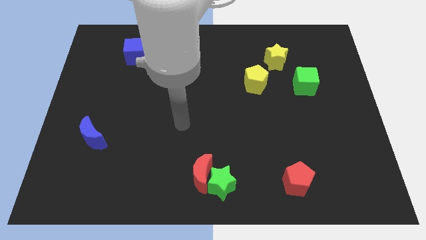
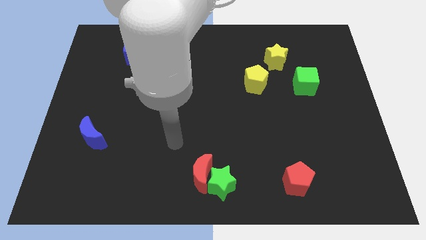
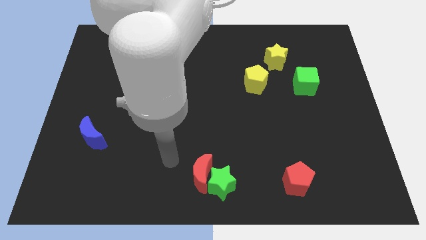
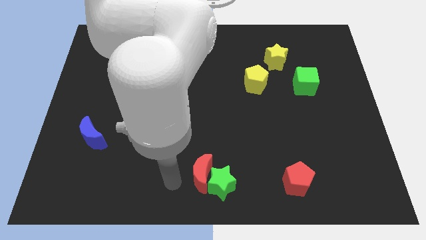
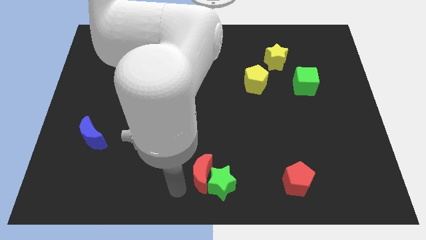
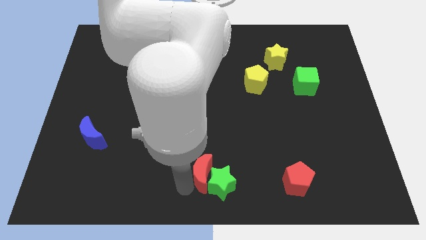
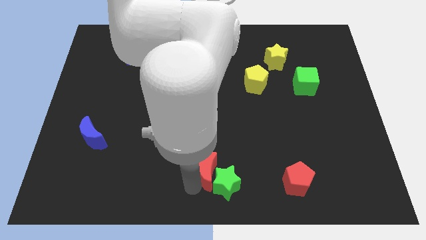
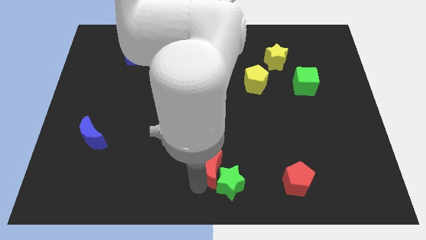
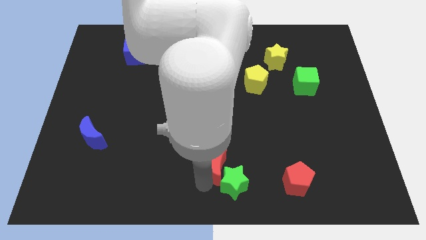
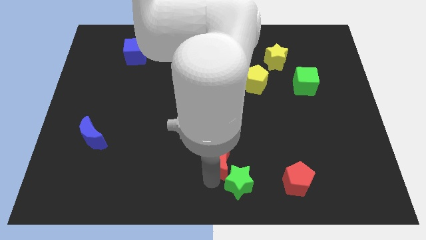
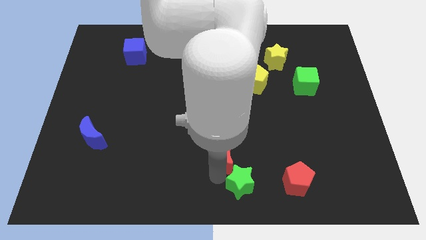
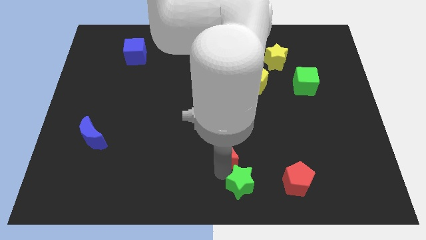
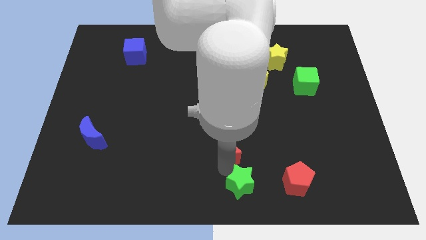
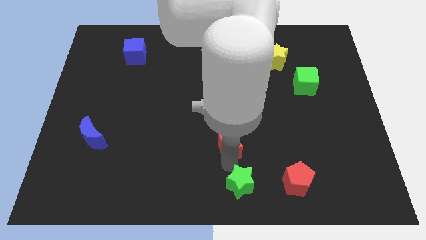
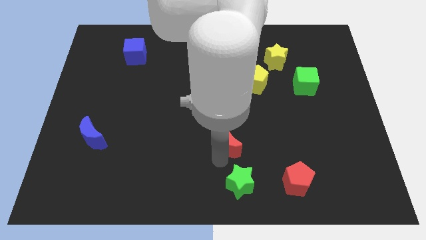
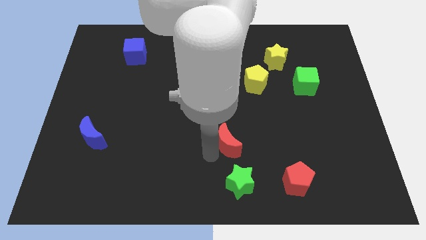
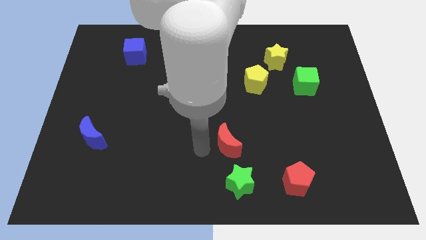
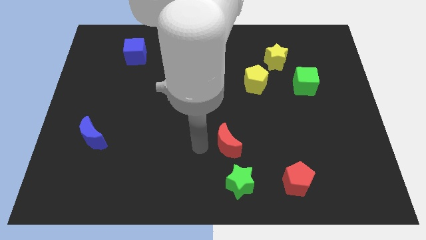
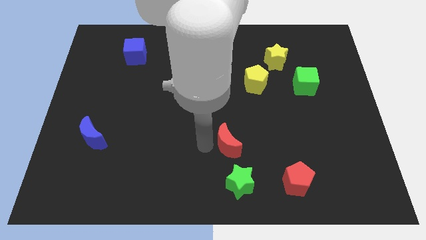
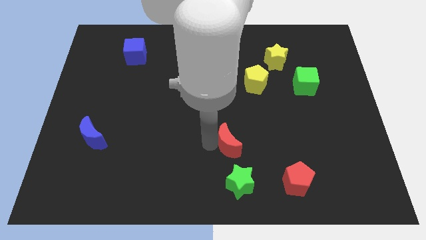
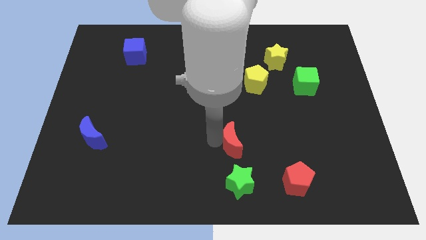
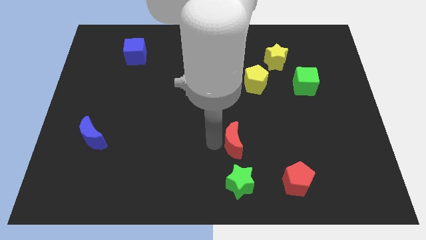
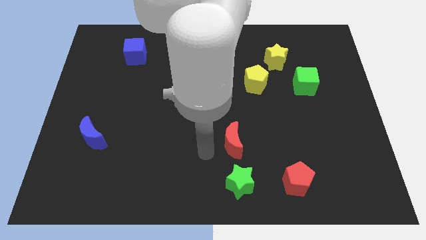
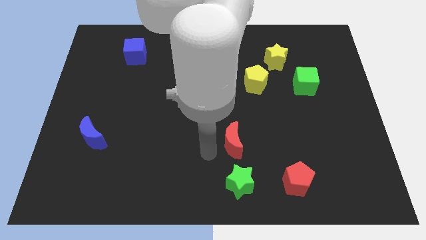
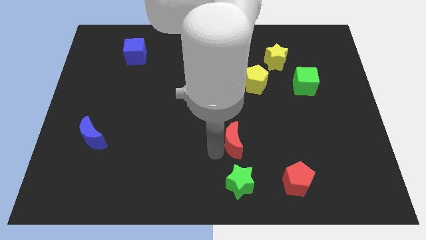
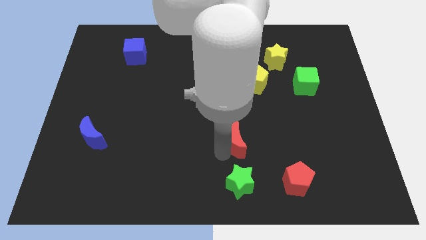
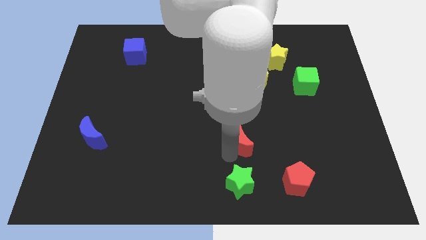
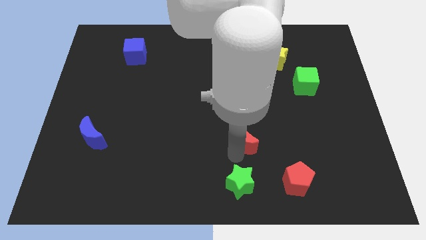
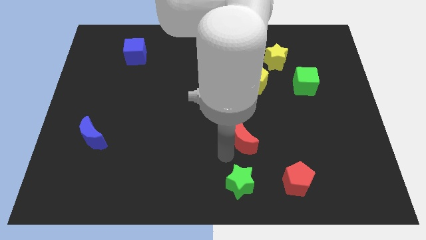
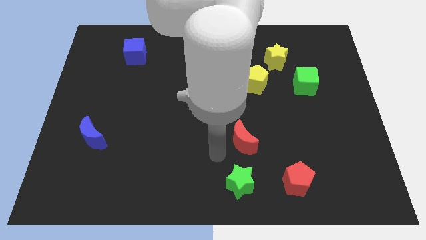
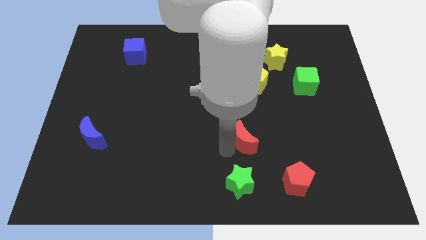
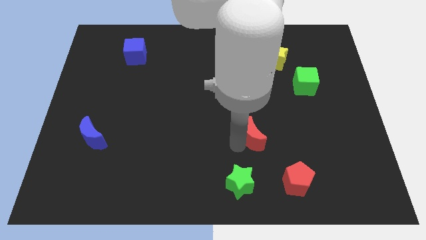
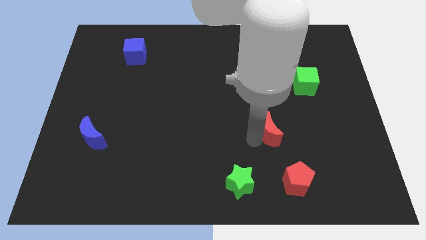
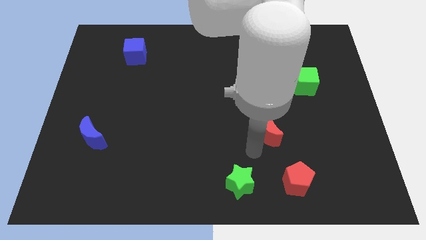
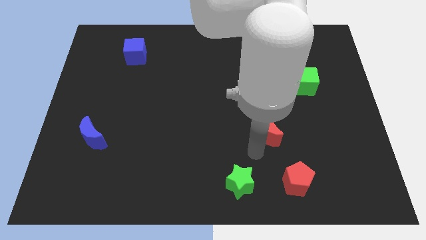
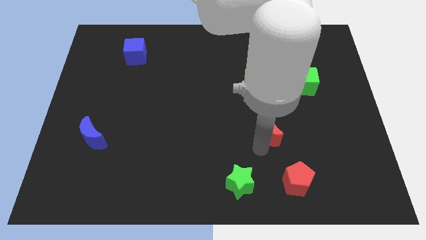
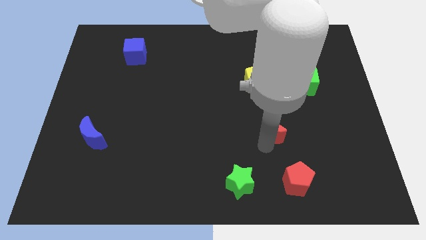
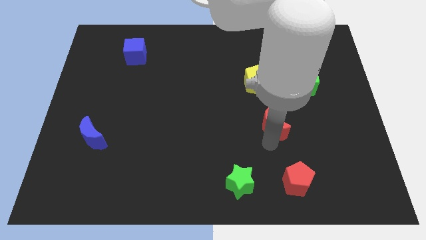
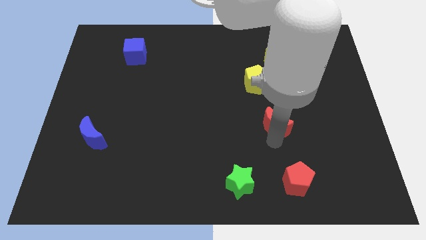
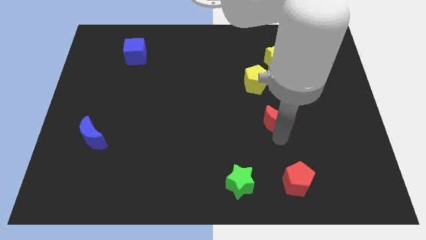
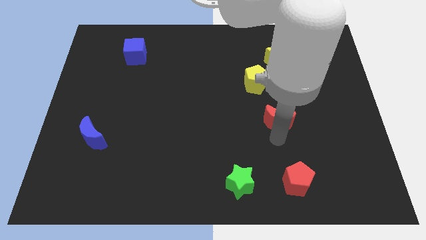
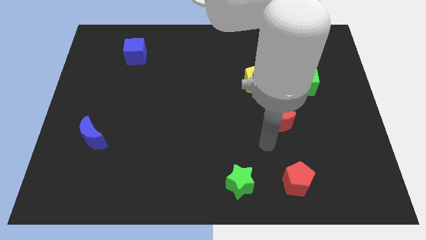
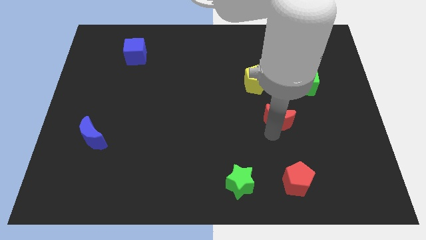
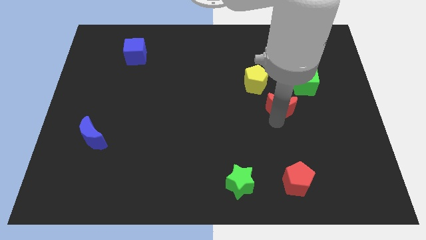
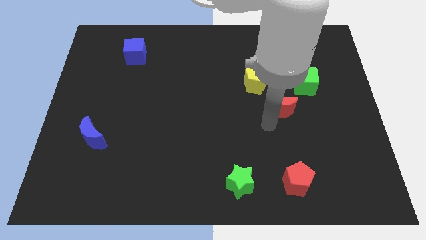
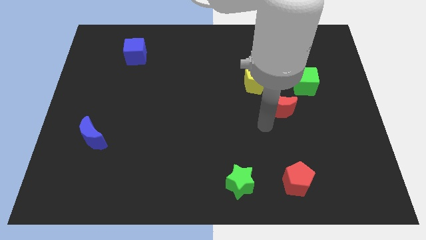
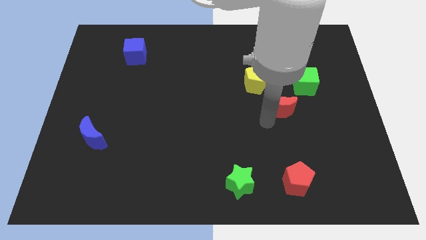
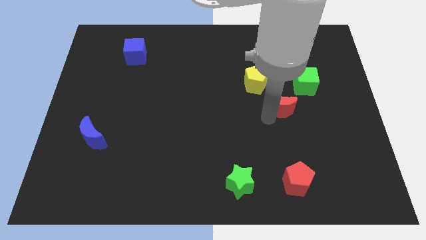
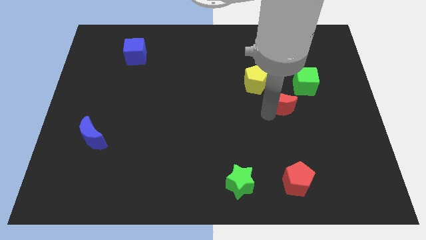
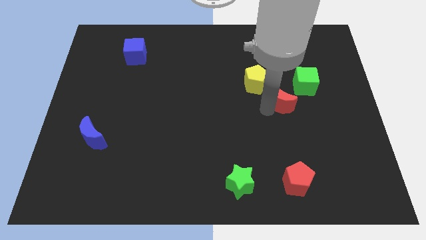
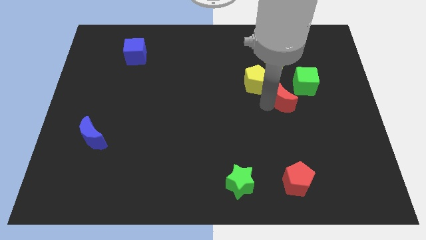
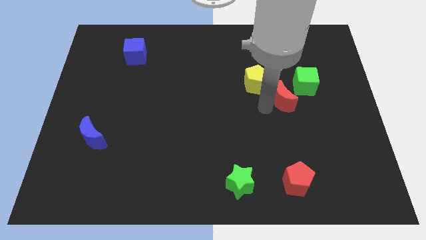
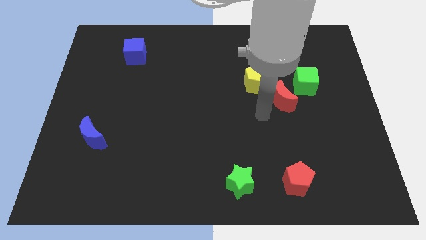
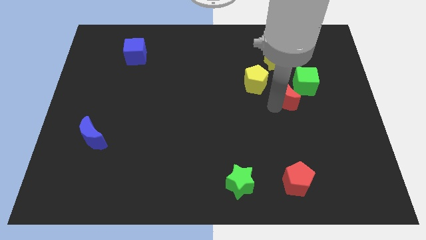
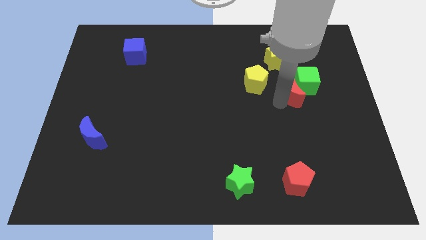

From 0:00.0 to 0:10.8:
move the red moon towards the green cube

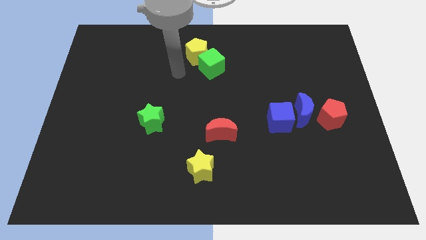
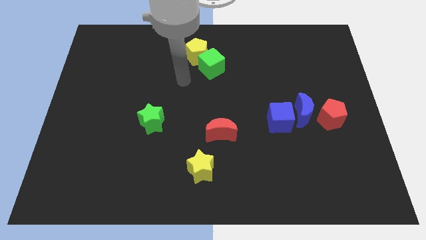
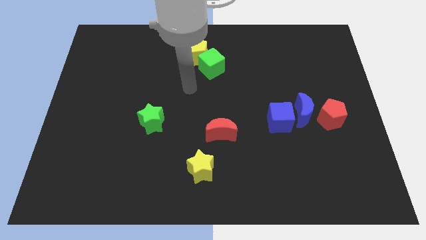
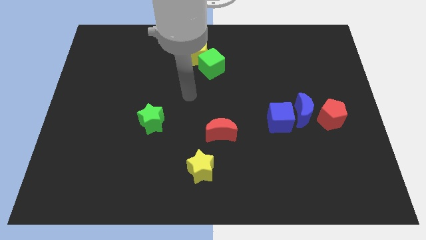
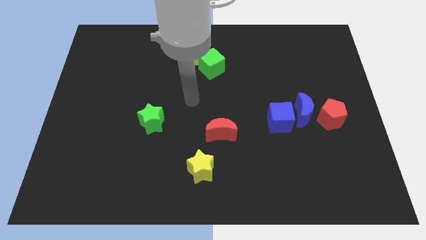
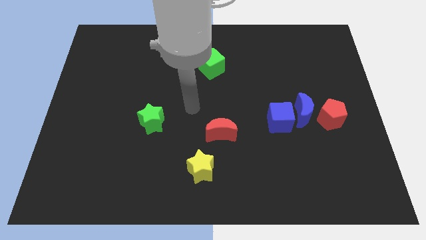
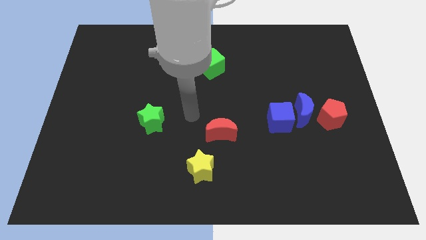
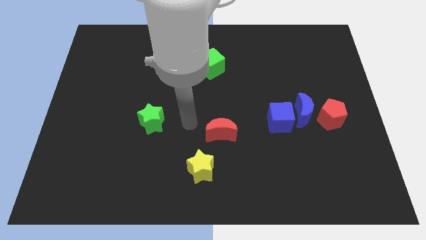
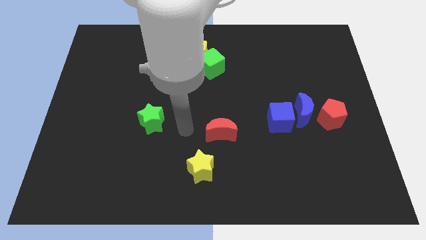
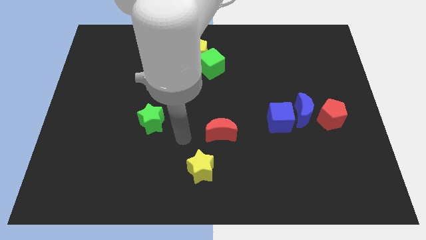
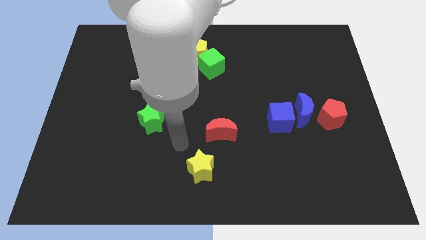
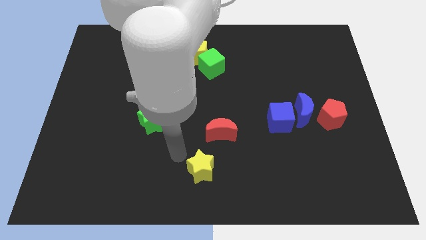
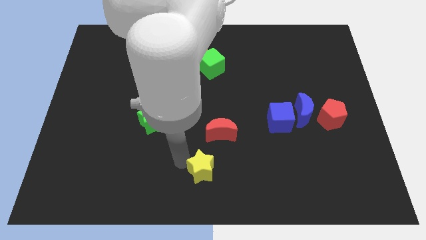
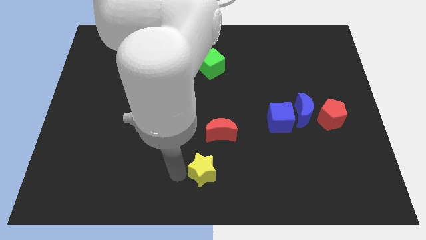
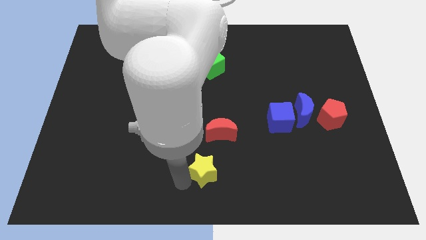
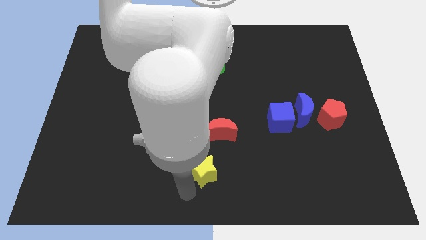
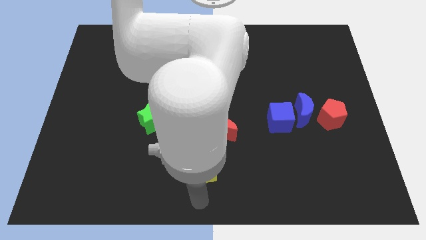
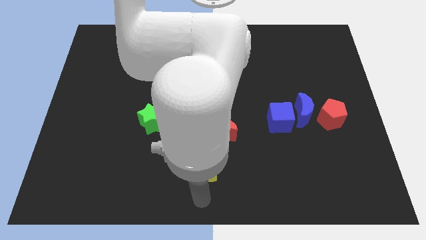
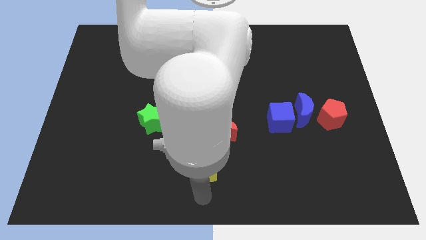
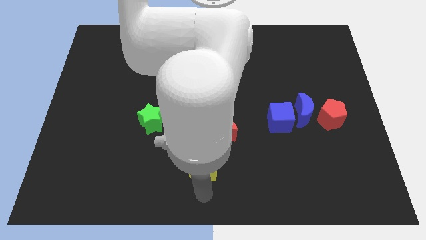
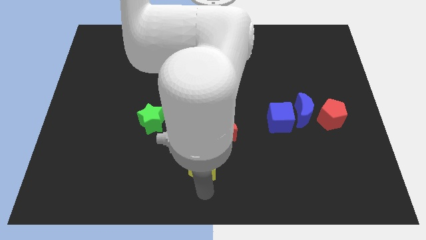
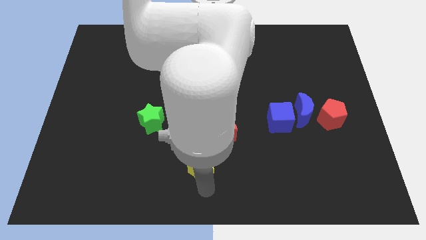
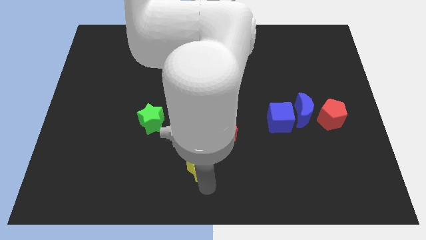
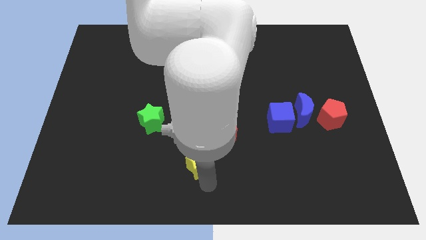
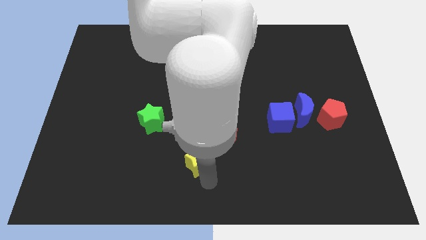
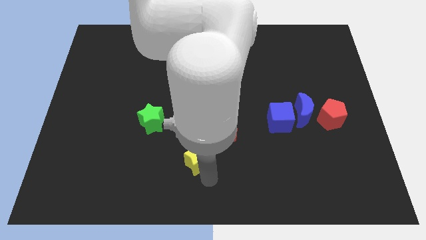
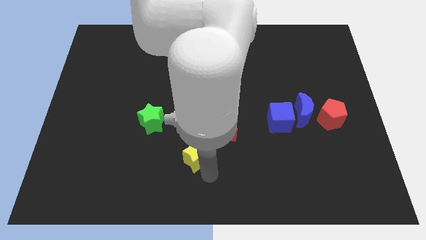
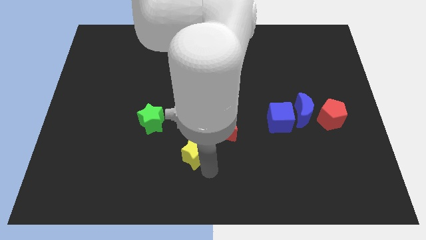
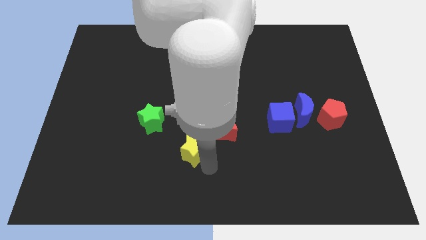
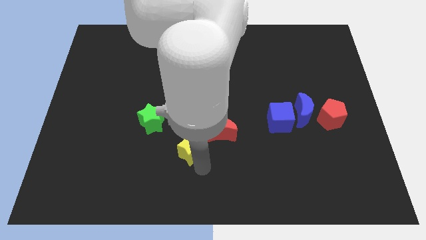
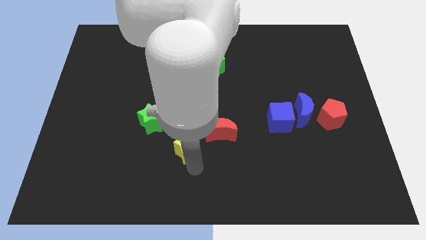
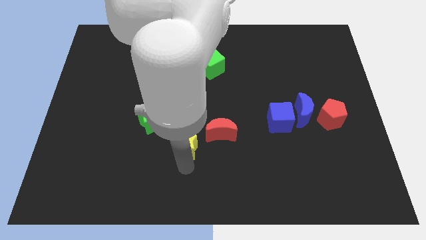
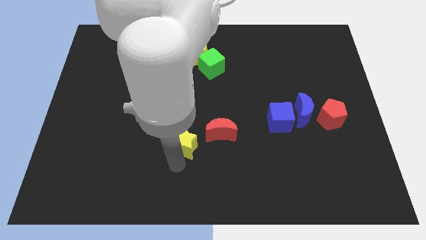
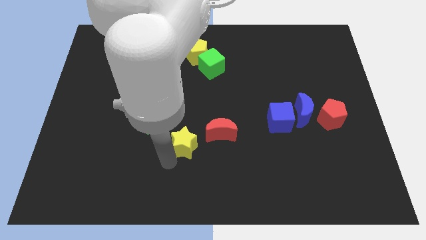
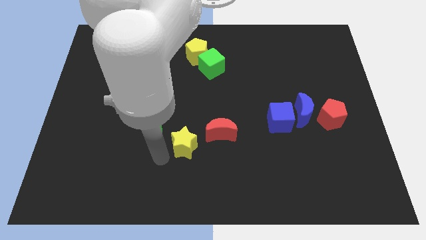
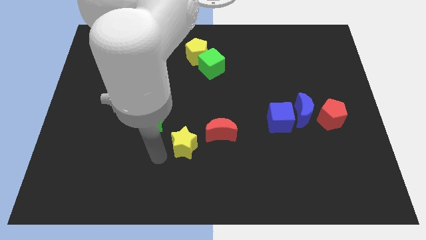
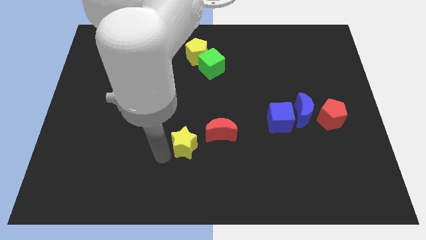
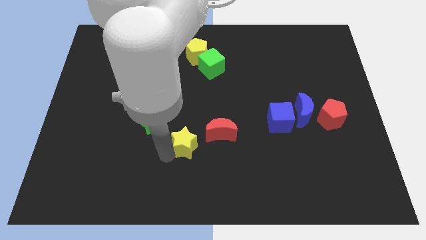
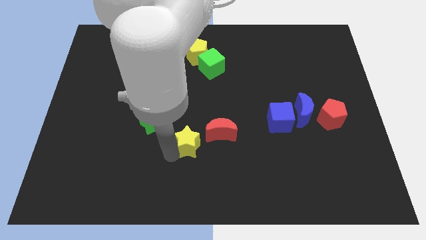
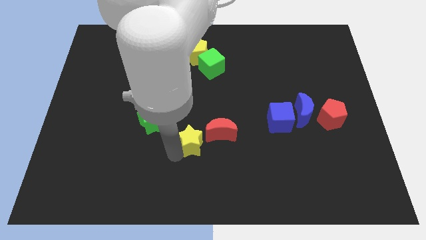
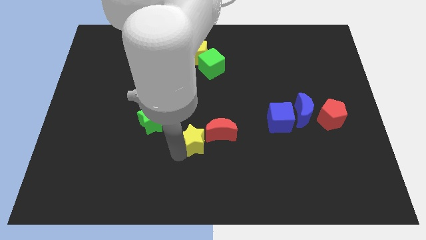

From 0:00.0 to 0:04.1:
move the yellow star next to the red moon
